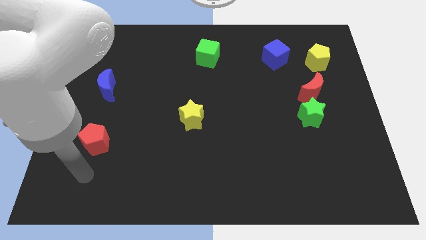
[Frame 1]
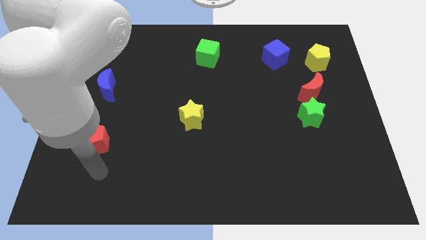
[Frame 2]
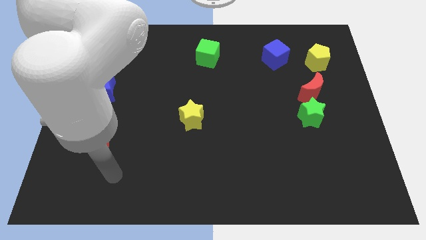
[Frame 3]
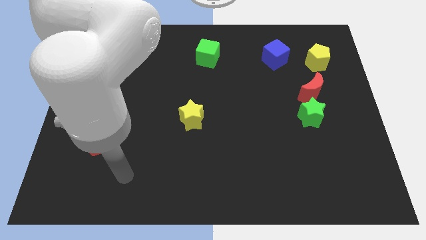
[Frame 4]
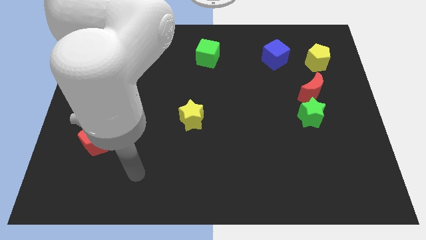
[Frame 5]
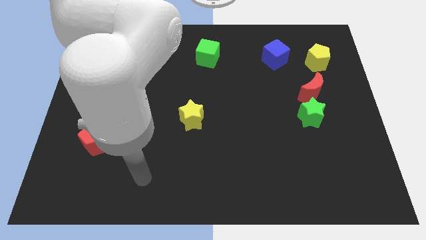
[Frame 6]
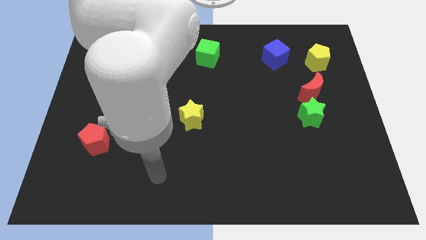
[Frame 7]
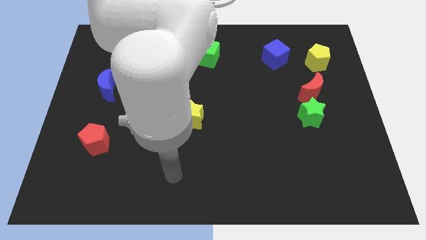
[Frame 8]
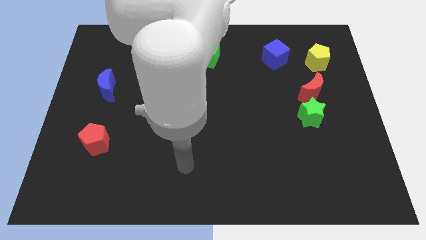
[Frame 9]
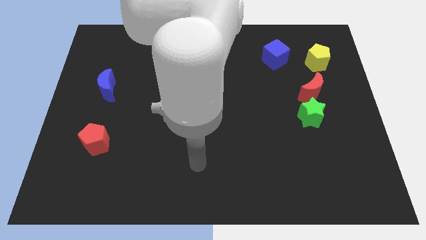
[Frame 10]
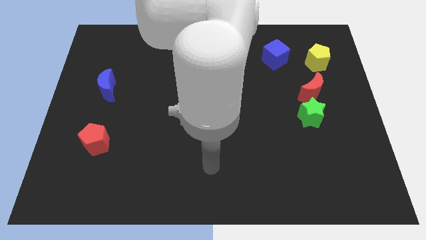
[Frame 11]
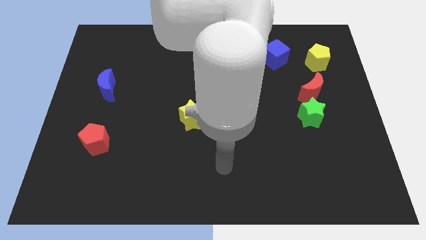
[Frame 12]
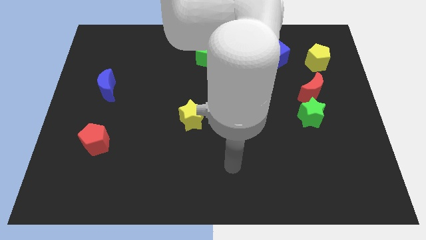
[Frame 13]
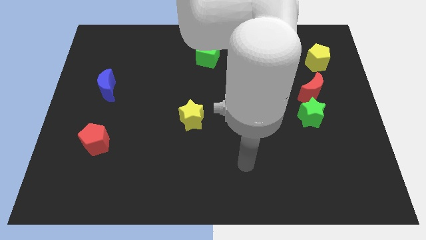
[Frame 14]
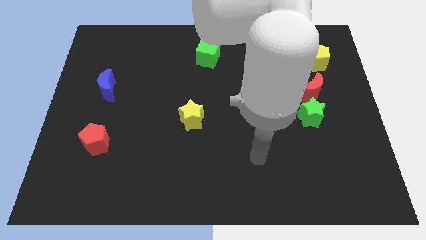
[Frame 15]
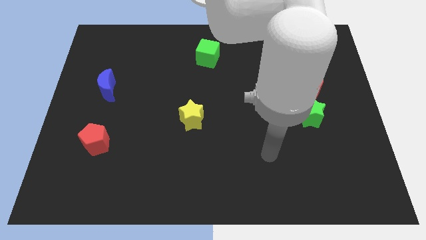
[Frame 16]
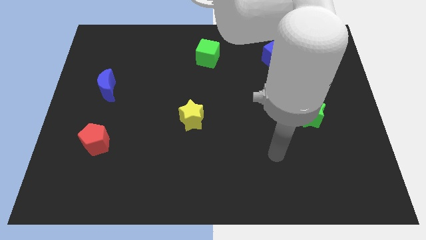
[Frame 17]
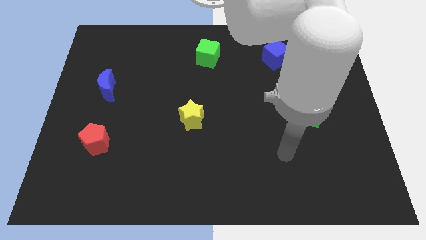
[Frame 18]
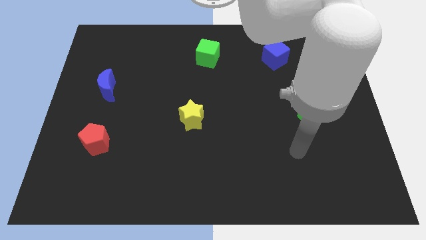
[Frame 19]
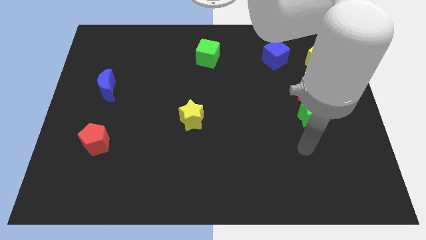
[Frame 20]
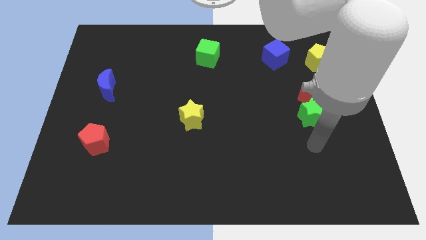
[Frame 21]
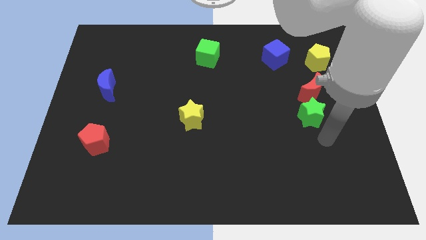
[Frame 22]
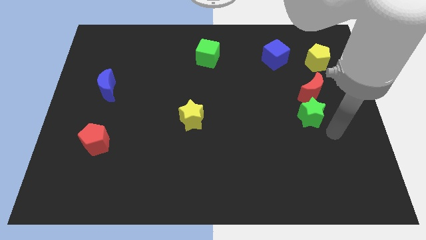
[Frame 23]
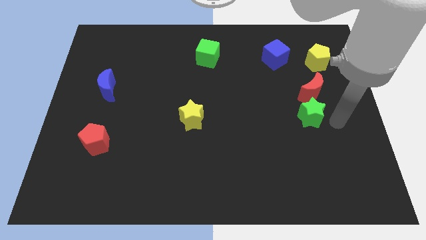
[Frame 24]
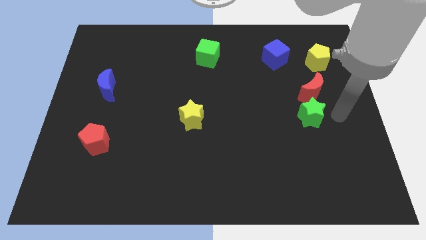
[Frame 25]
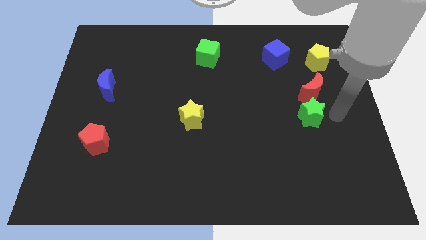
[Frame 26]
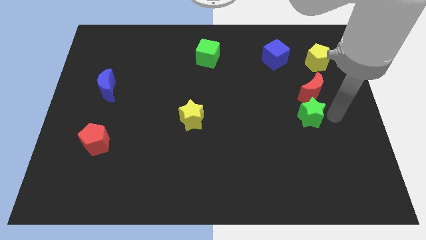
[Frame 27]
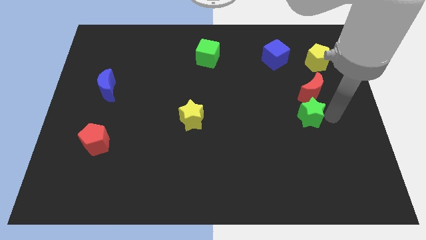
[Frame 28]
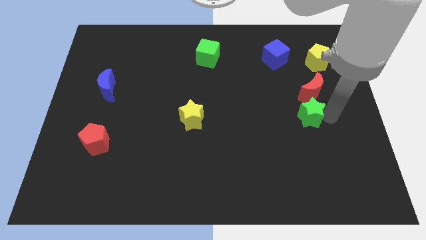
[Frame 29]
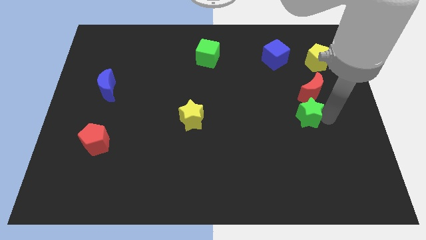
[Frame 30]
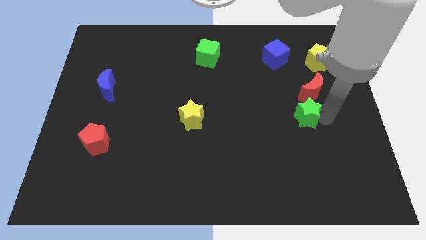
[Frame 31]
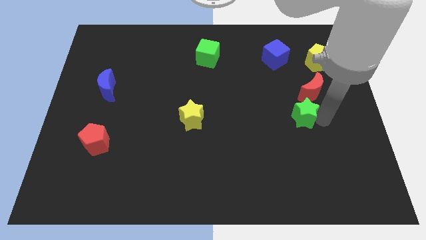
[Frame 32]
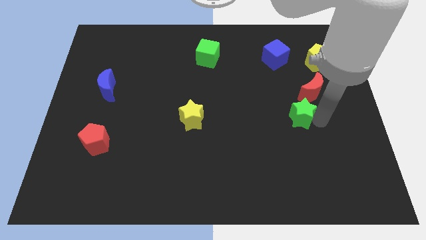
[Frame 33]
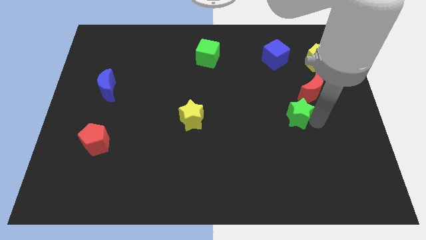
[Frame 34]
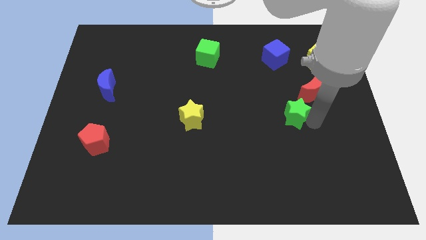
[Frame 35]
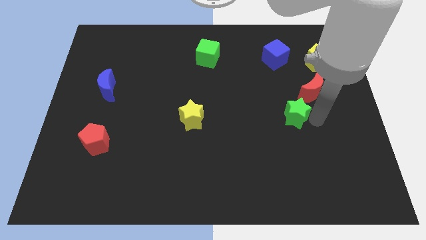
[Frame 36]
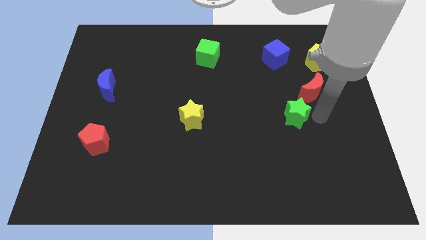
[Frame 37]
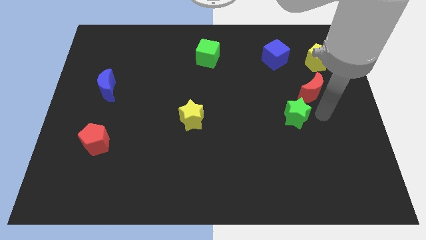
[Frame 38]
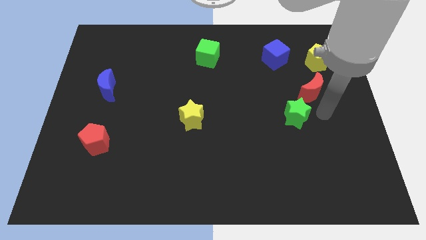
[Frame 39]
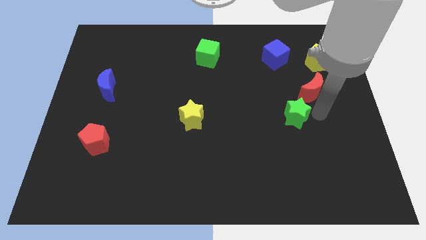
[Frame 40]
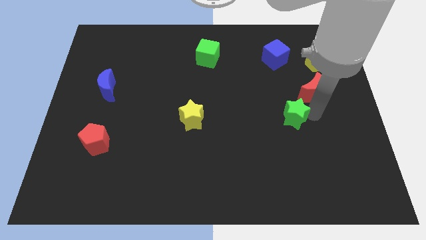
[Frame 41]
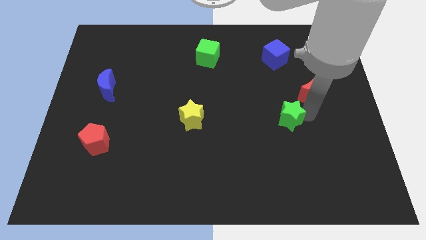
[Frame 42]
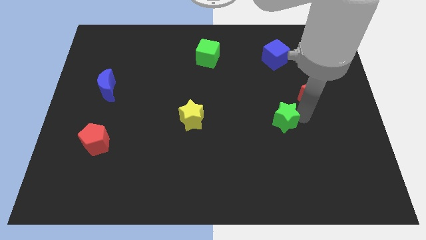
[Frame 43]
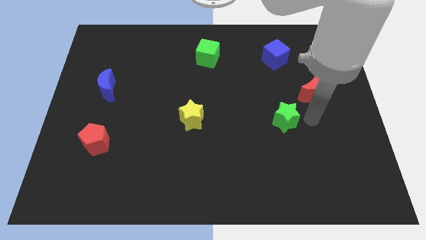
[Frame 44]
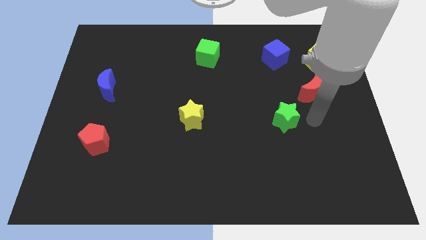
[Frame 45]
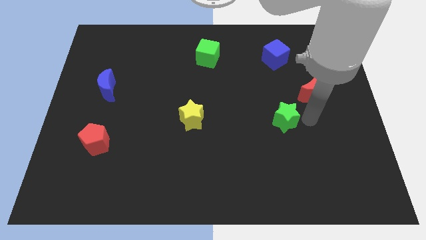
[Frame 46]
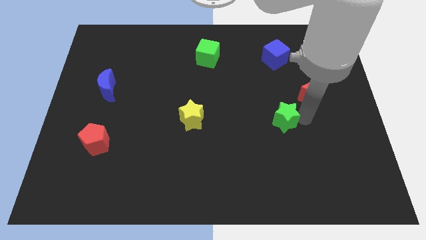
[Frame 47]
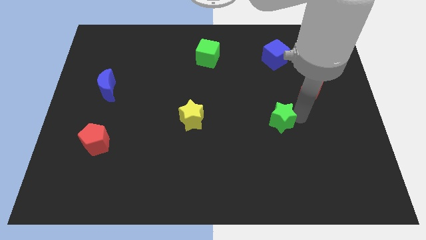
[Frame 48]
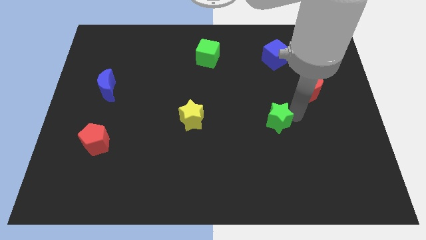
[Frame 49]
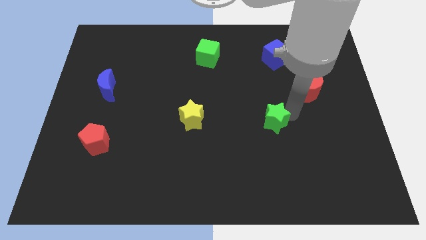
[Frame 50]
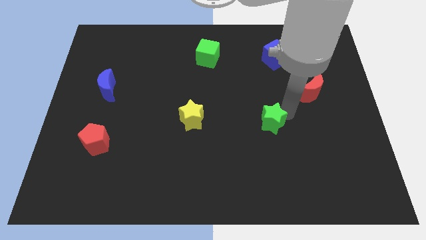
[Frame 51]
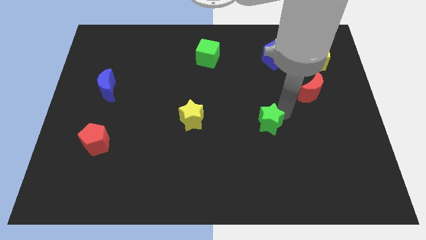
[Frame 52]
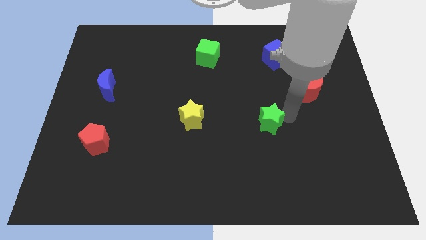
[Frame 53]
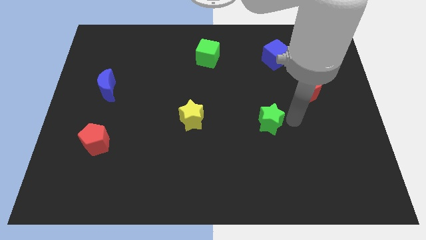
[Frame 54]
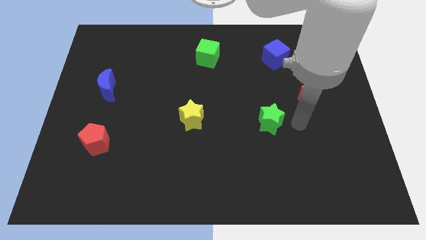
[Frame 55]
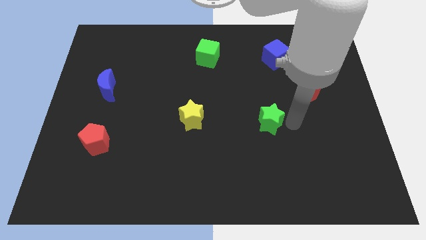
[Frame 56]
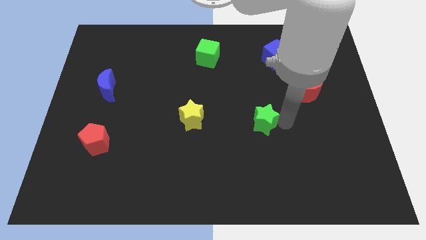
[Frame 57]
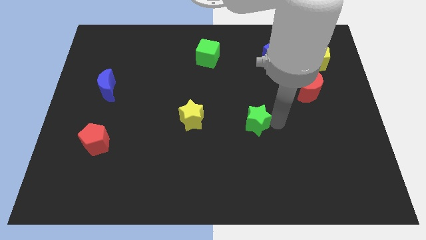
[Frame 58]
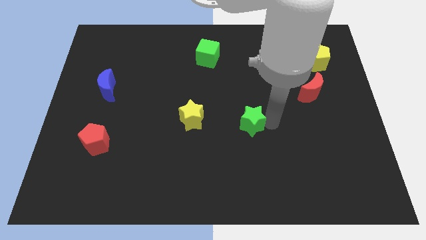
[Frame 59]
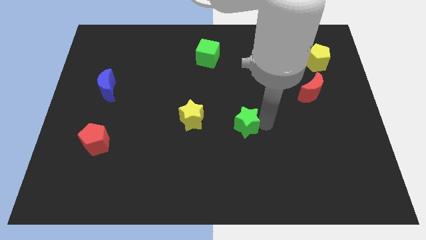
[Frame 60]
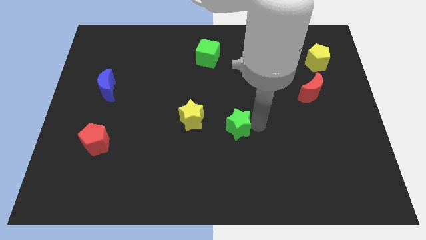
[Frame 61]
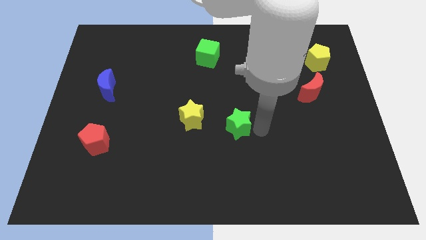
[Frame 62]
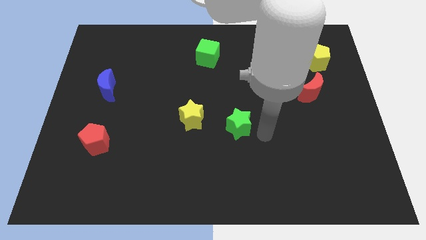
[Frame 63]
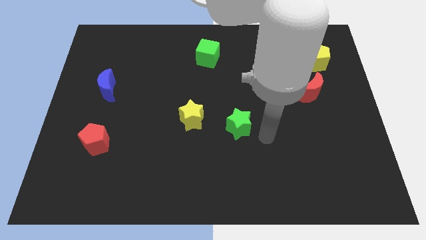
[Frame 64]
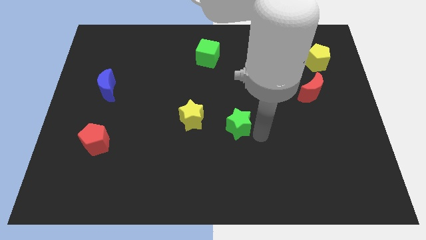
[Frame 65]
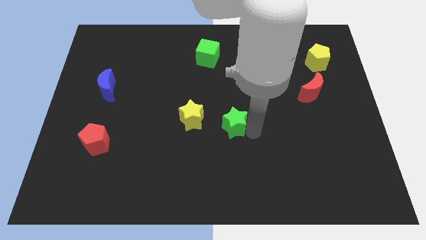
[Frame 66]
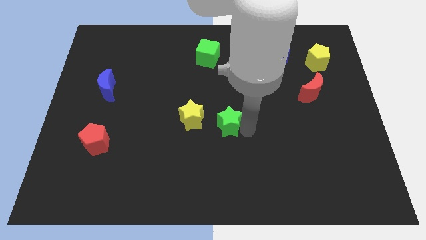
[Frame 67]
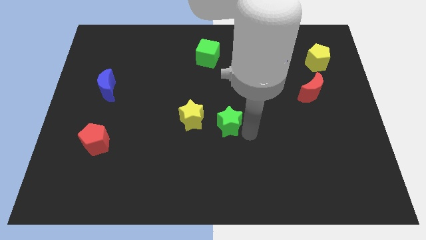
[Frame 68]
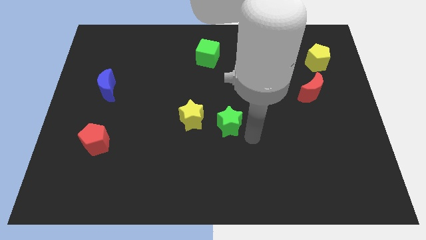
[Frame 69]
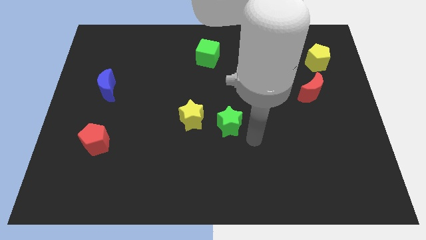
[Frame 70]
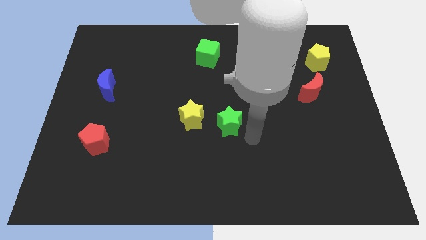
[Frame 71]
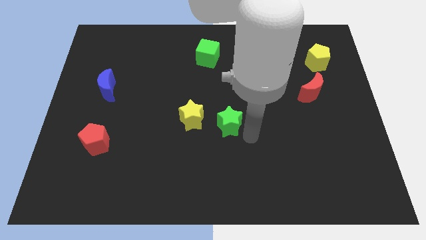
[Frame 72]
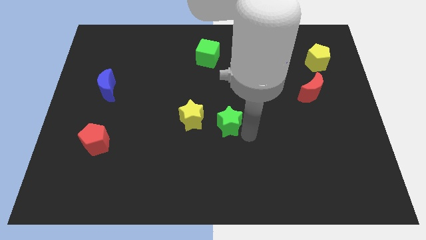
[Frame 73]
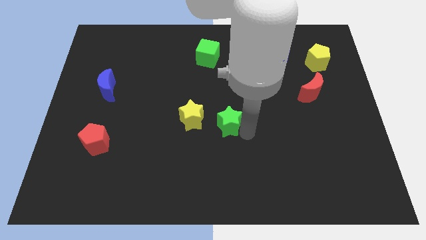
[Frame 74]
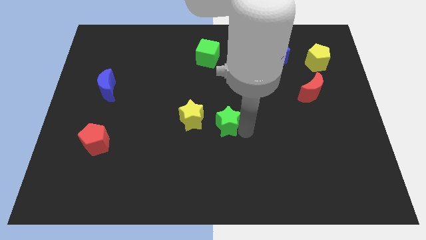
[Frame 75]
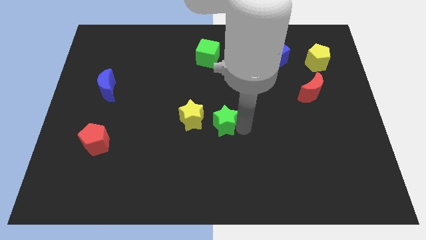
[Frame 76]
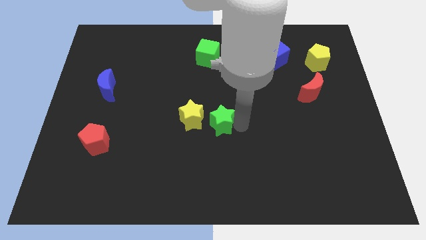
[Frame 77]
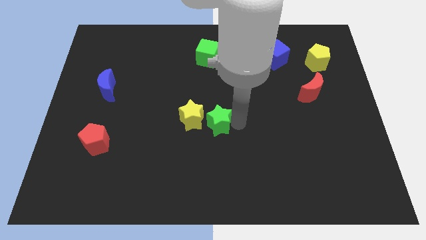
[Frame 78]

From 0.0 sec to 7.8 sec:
move the green star next to the yellow star
